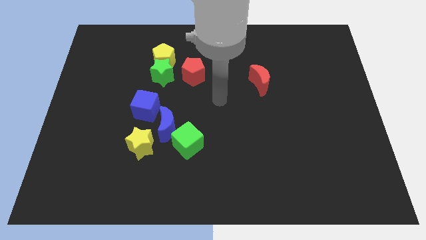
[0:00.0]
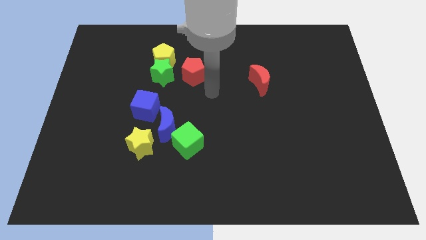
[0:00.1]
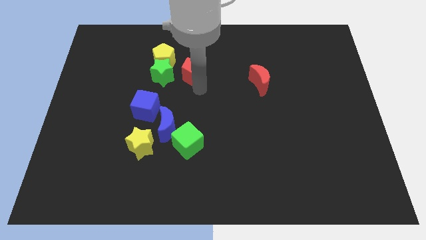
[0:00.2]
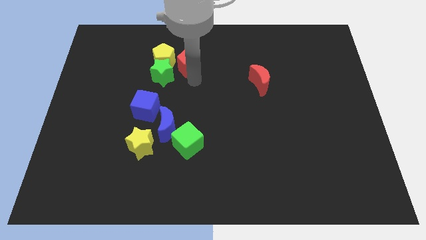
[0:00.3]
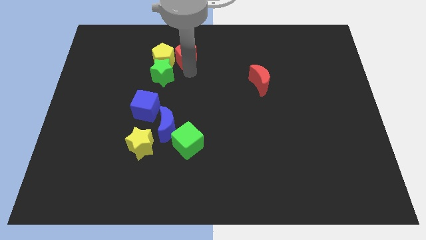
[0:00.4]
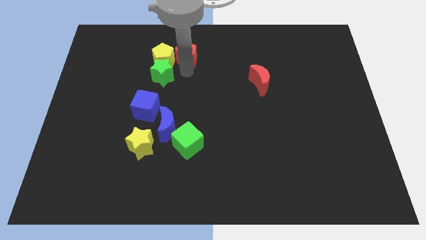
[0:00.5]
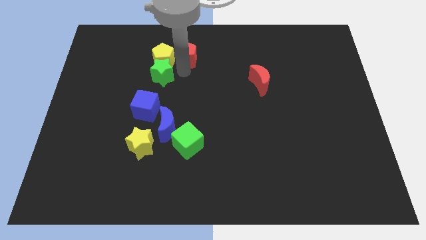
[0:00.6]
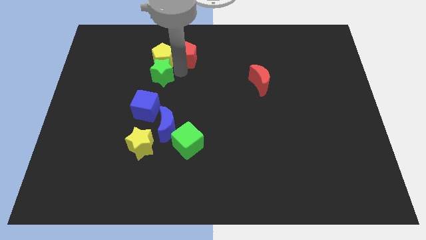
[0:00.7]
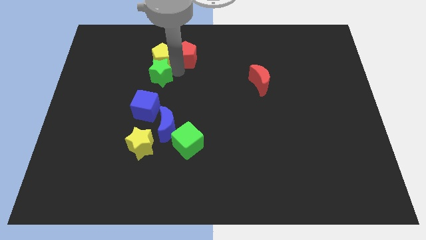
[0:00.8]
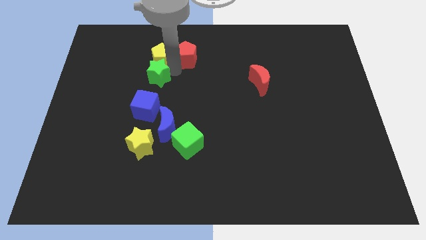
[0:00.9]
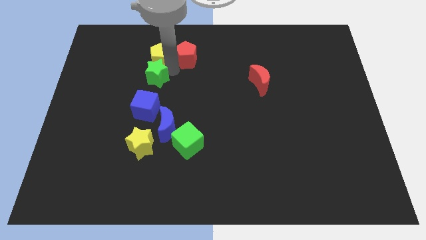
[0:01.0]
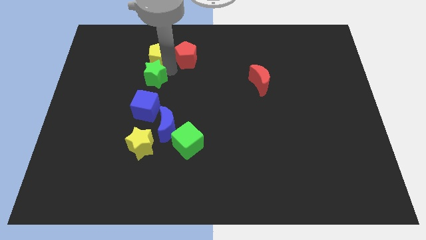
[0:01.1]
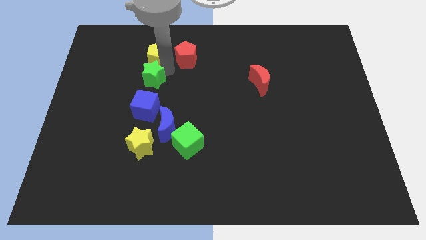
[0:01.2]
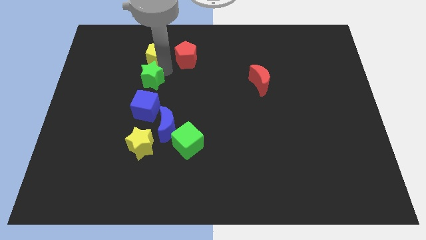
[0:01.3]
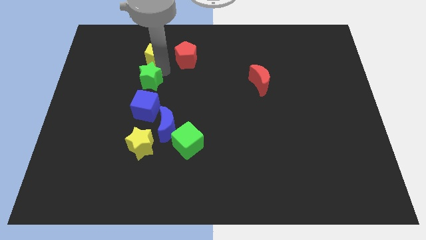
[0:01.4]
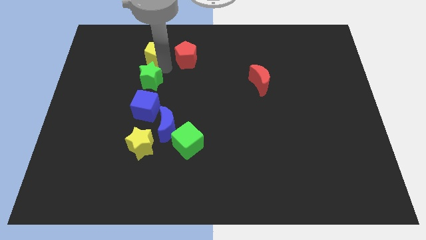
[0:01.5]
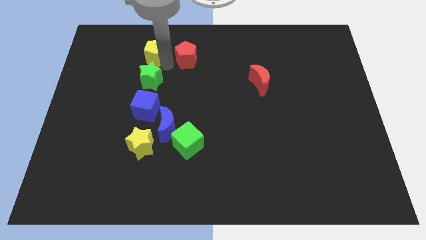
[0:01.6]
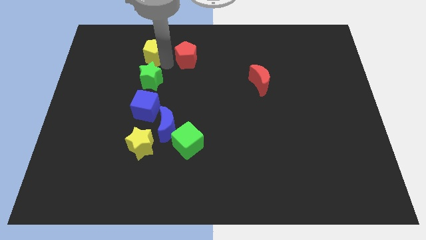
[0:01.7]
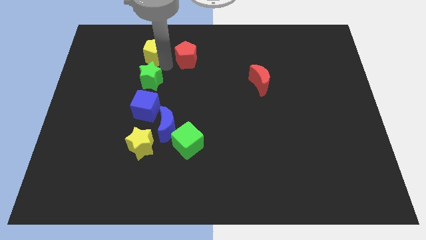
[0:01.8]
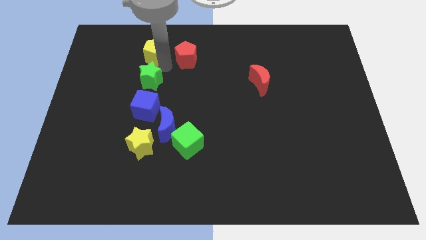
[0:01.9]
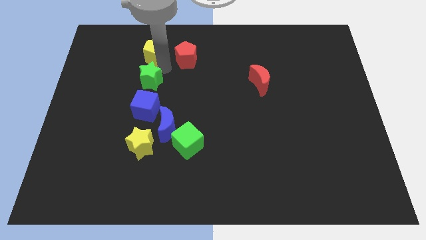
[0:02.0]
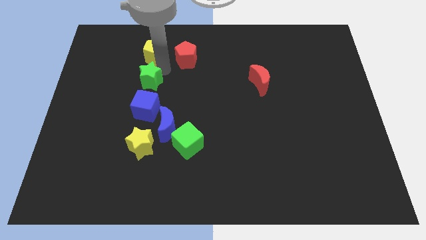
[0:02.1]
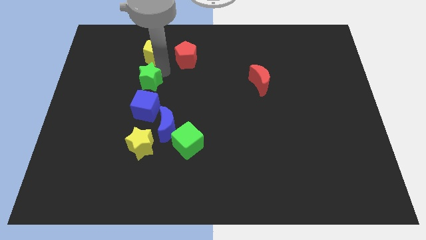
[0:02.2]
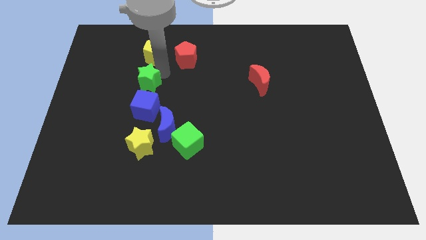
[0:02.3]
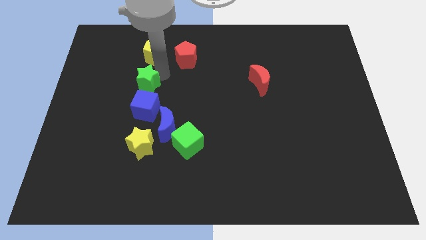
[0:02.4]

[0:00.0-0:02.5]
move the green star away from the yellow pentagon and red pentagon

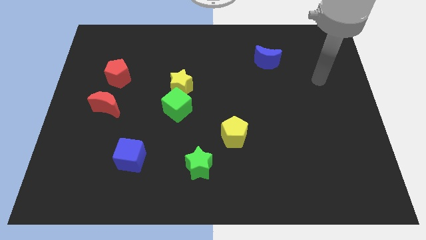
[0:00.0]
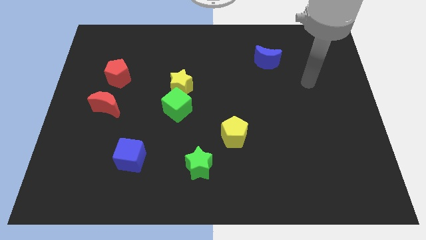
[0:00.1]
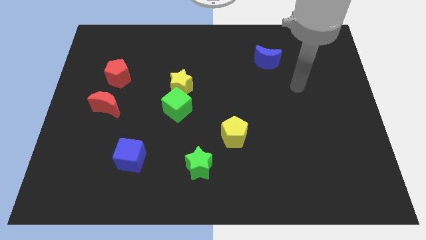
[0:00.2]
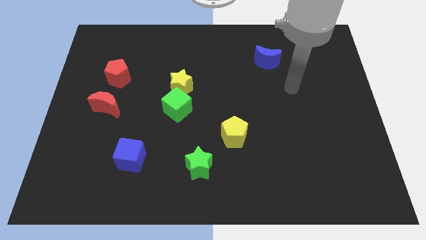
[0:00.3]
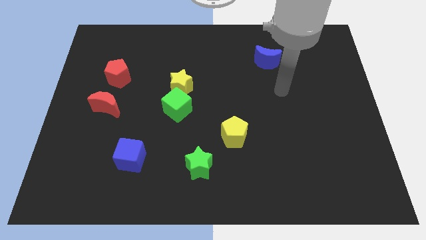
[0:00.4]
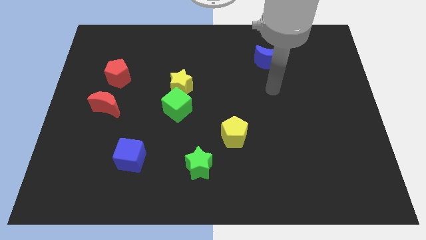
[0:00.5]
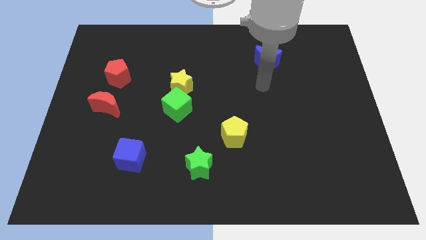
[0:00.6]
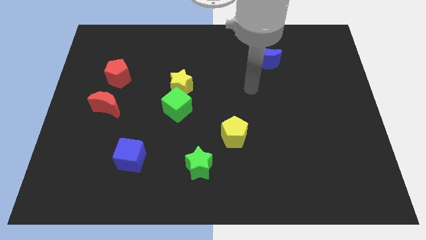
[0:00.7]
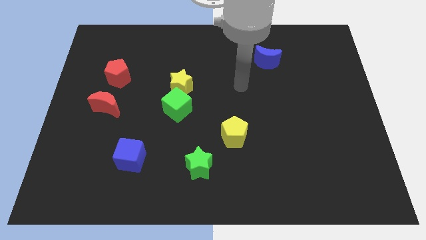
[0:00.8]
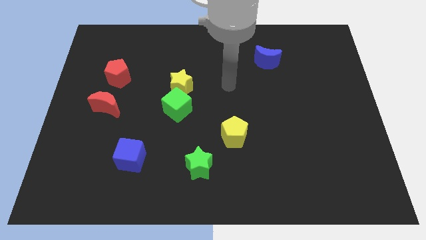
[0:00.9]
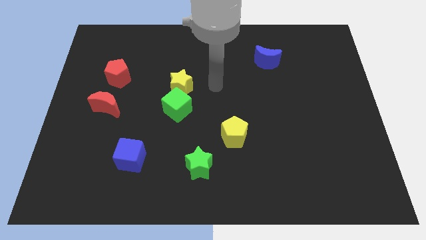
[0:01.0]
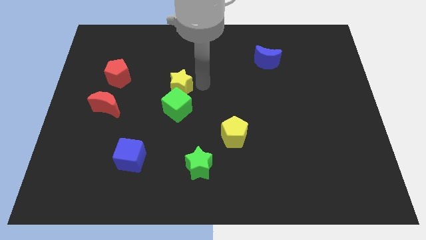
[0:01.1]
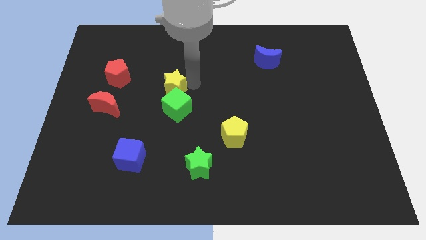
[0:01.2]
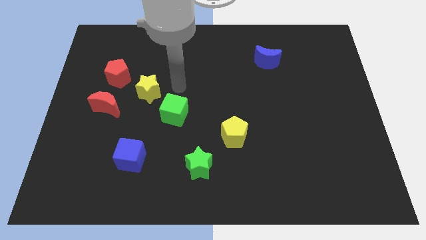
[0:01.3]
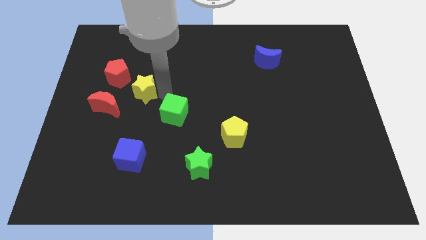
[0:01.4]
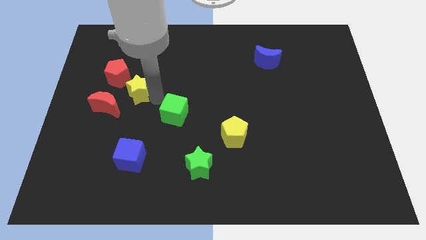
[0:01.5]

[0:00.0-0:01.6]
separate the green cube from the yellow star

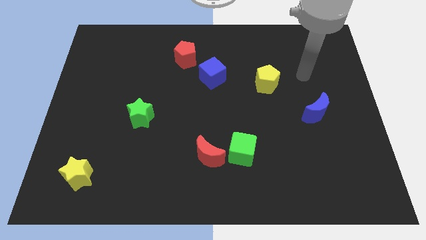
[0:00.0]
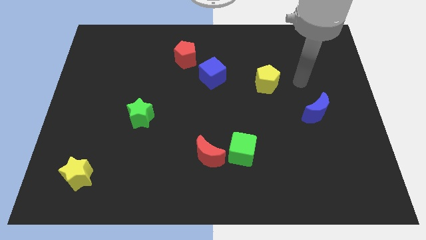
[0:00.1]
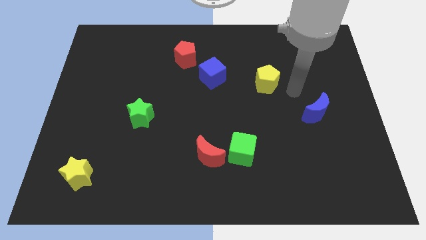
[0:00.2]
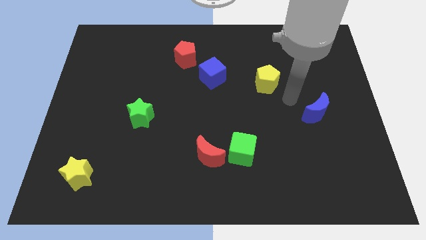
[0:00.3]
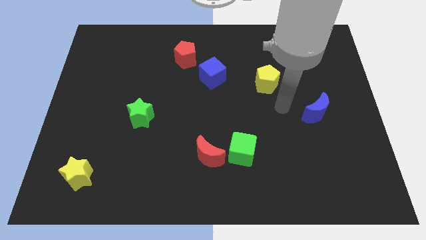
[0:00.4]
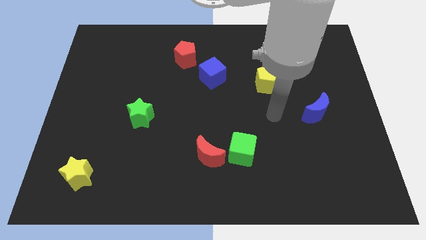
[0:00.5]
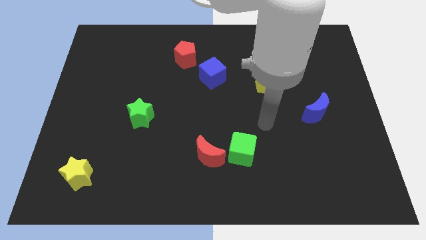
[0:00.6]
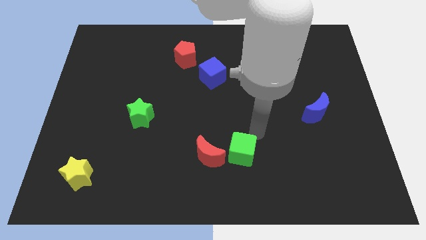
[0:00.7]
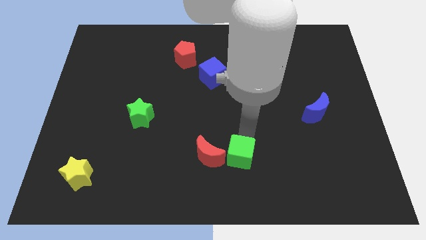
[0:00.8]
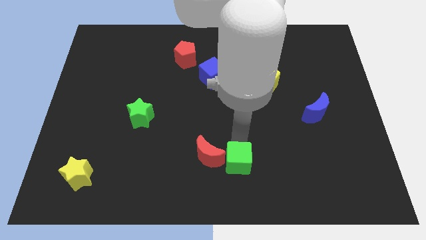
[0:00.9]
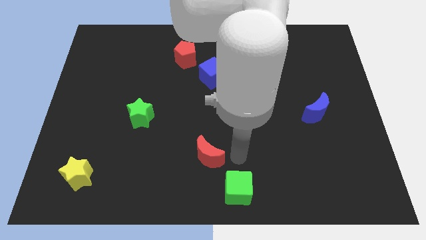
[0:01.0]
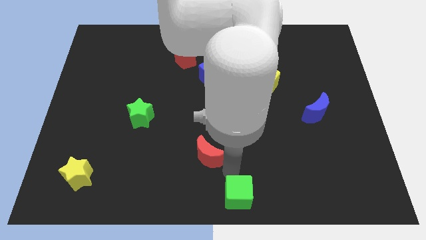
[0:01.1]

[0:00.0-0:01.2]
pull the red moon apart from the green cube

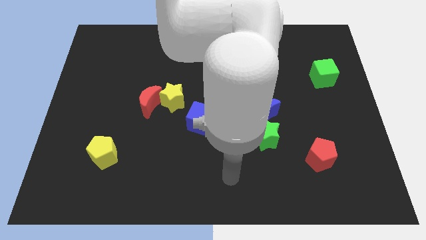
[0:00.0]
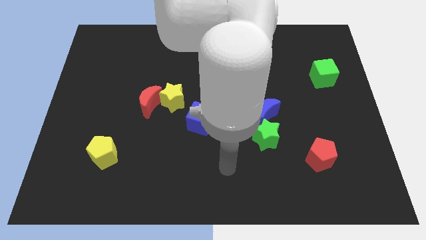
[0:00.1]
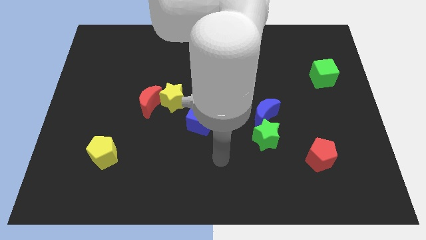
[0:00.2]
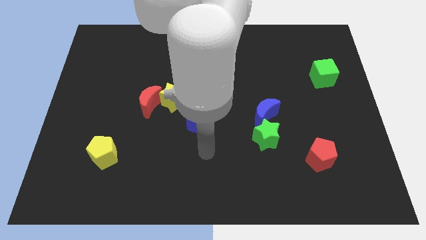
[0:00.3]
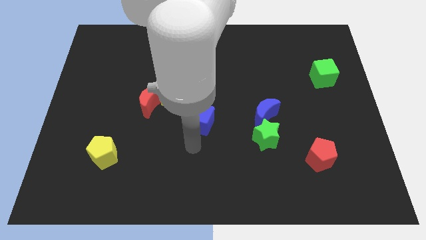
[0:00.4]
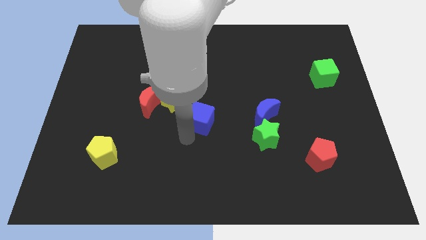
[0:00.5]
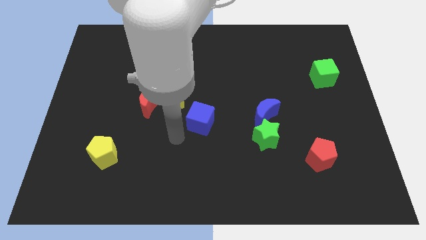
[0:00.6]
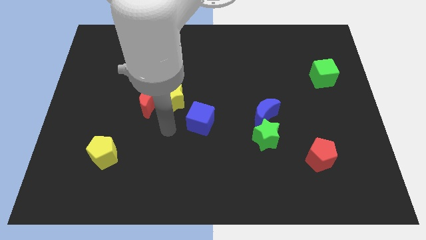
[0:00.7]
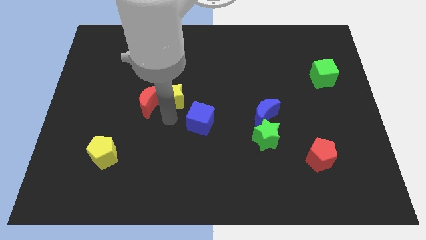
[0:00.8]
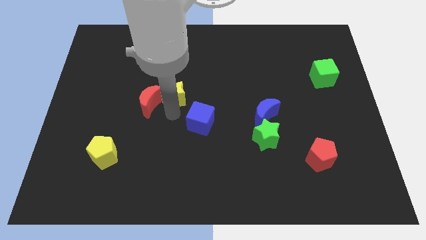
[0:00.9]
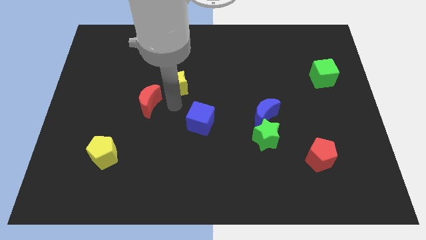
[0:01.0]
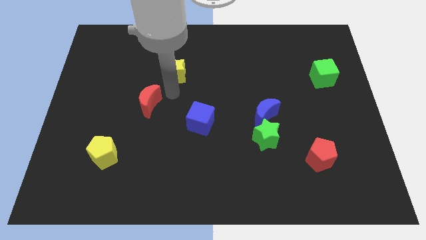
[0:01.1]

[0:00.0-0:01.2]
separate the red moon from the yellow star

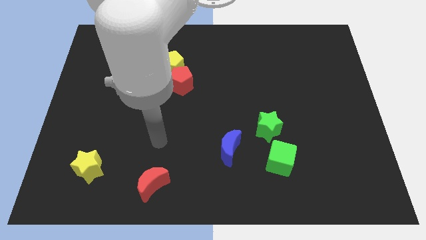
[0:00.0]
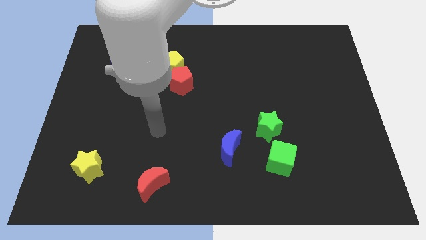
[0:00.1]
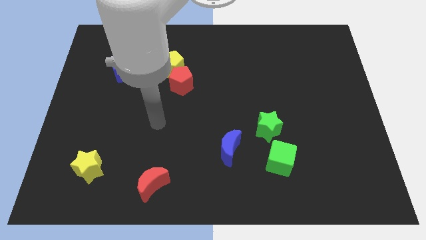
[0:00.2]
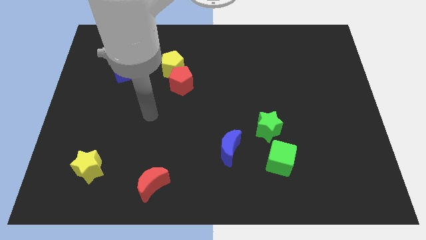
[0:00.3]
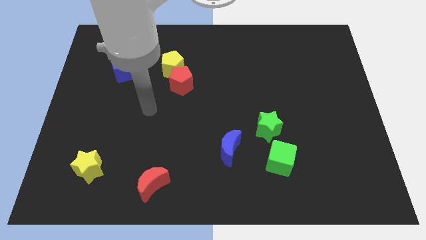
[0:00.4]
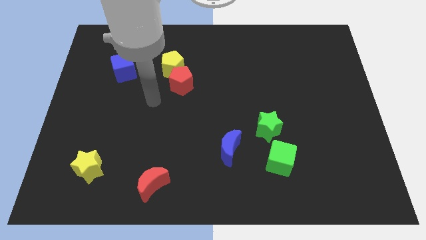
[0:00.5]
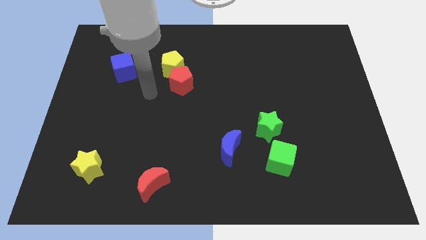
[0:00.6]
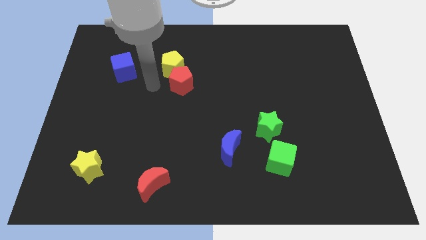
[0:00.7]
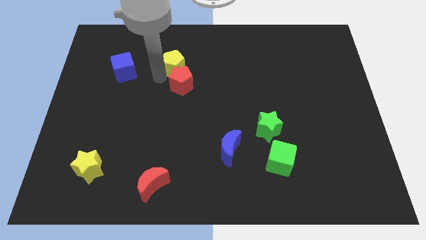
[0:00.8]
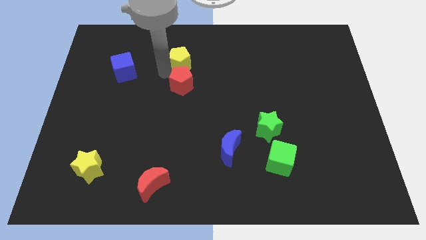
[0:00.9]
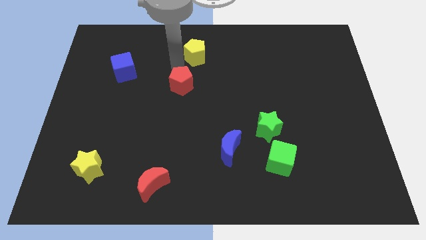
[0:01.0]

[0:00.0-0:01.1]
move the red pentagon away from the yellow pentagon

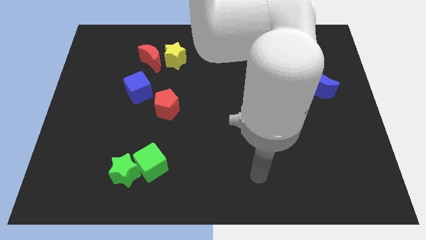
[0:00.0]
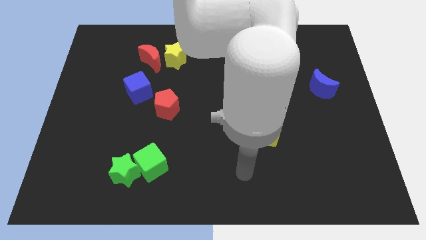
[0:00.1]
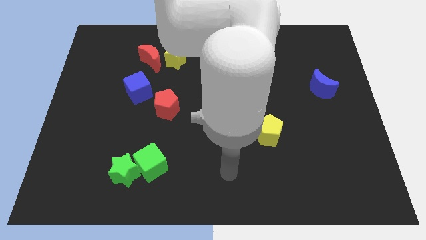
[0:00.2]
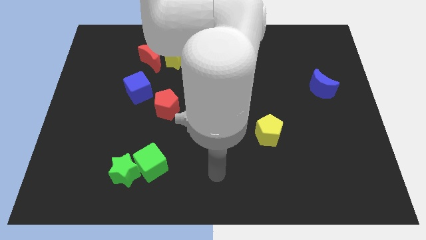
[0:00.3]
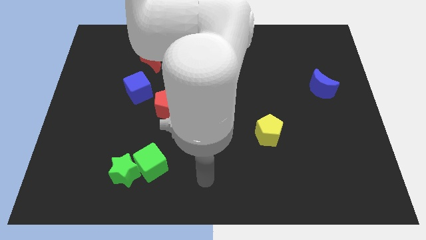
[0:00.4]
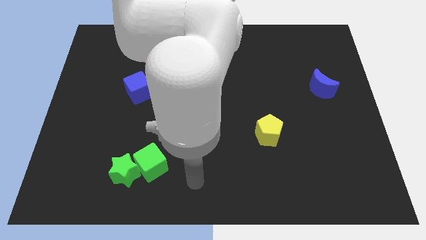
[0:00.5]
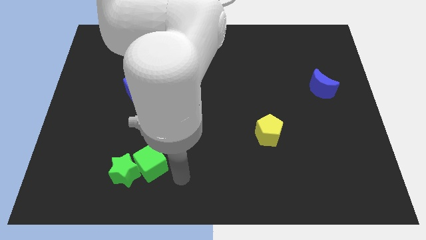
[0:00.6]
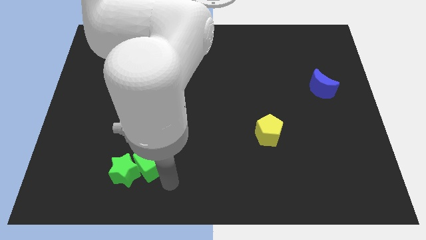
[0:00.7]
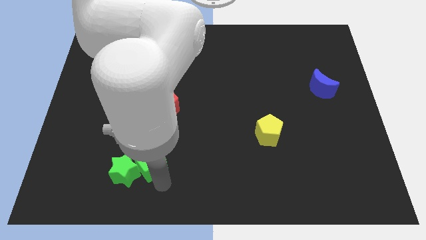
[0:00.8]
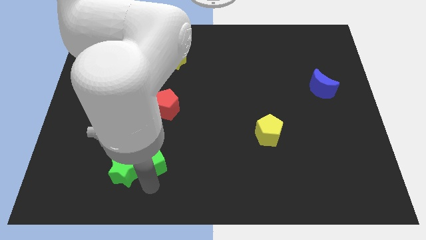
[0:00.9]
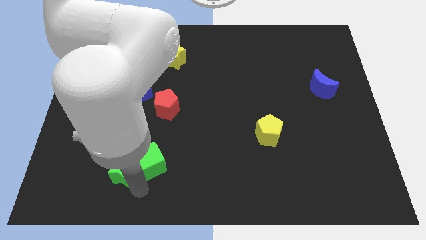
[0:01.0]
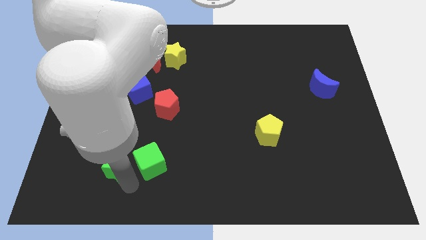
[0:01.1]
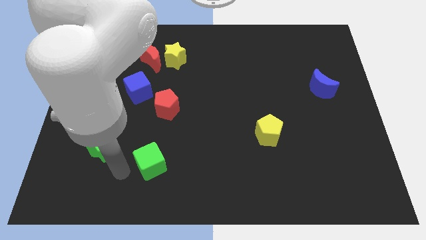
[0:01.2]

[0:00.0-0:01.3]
move the green cube away from the green star

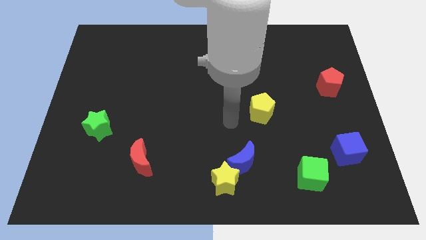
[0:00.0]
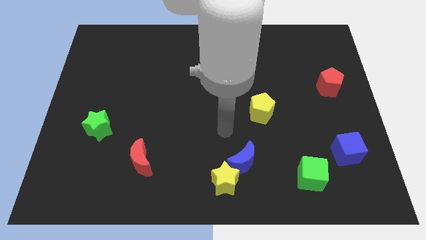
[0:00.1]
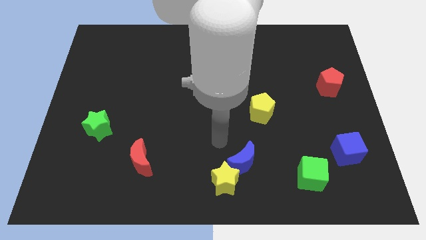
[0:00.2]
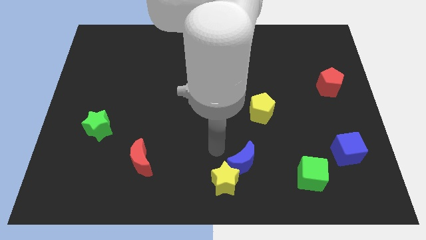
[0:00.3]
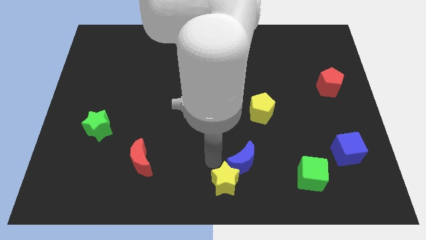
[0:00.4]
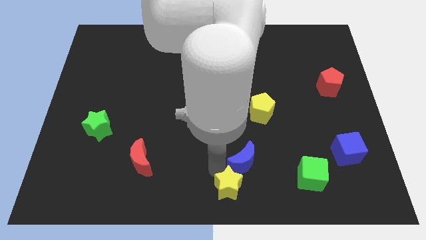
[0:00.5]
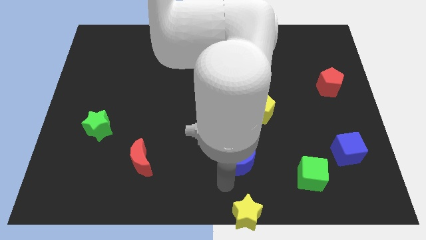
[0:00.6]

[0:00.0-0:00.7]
separate the blue moon from the yellow star
